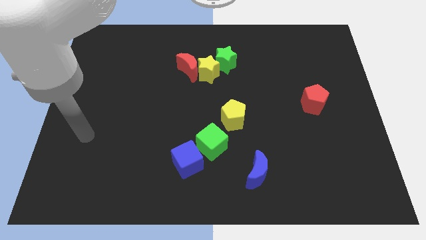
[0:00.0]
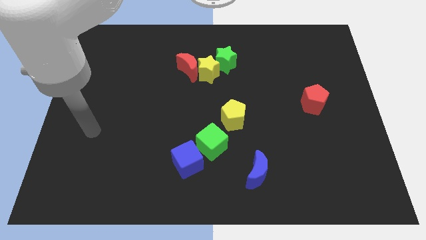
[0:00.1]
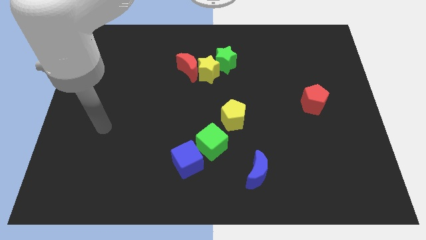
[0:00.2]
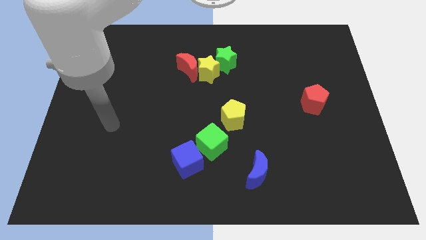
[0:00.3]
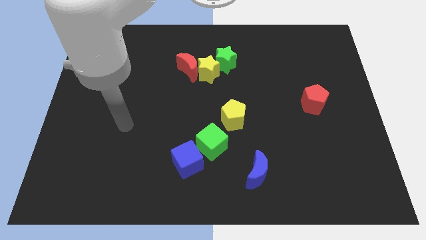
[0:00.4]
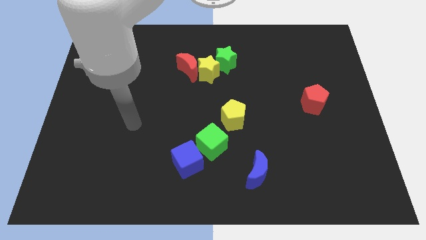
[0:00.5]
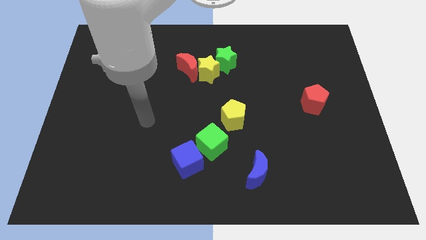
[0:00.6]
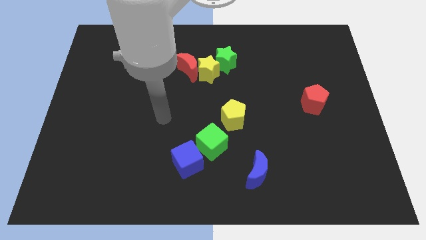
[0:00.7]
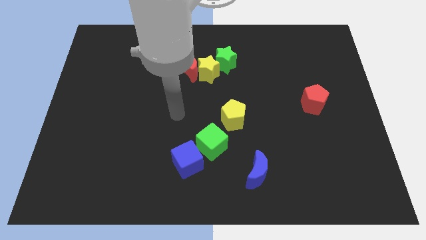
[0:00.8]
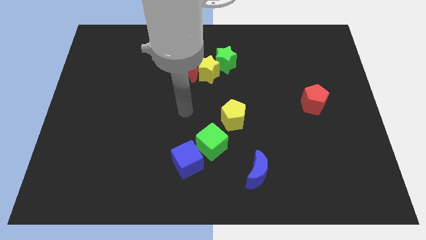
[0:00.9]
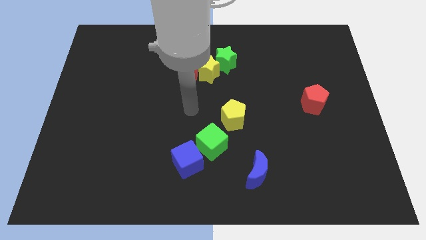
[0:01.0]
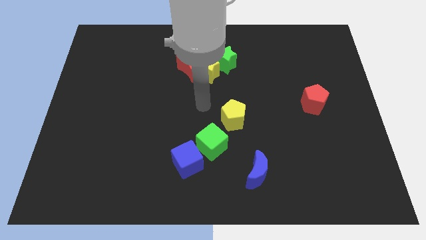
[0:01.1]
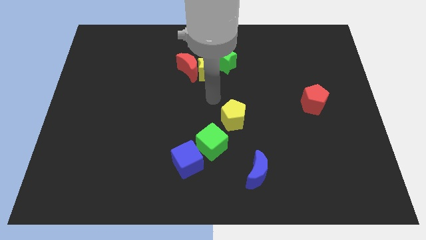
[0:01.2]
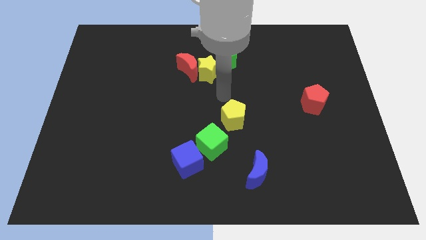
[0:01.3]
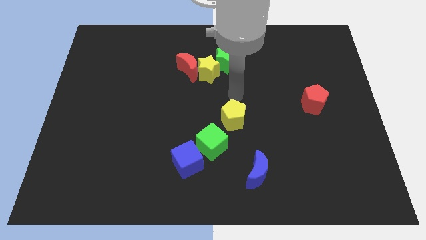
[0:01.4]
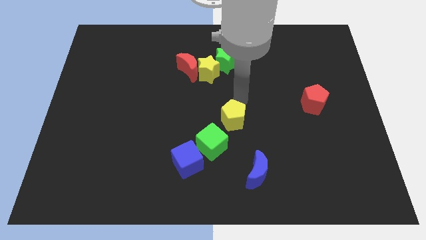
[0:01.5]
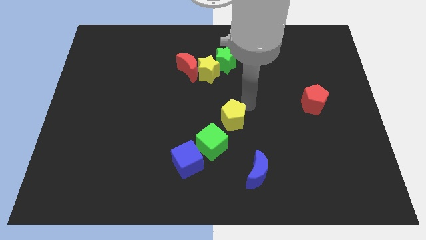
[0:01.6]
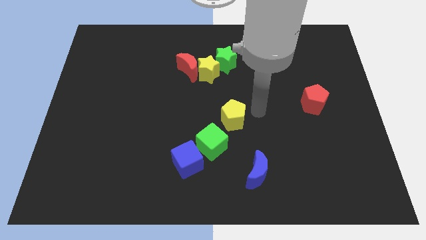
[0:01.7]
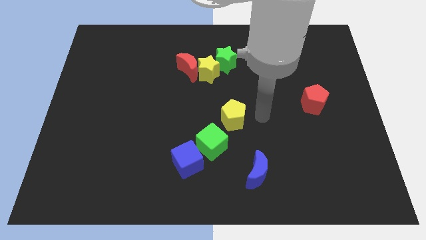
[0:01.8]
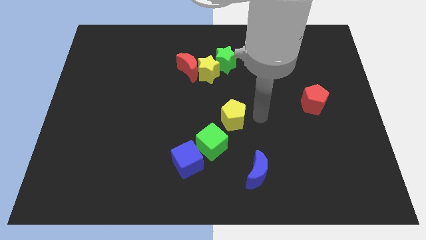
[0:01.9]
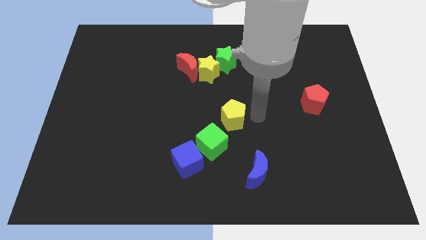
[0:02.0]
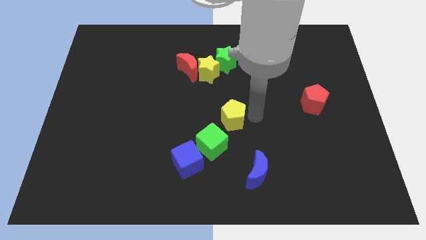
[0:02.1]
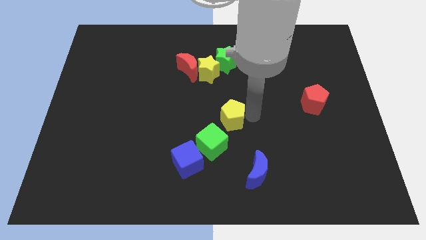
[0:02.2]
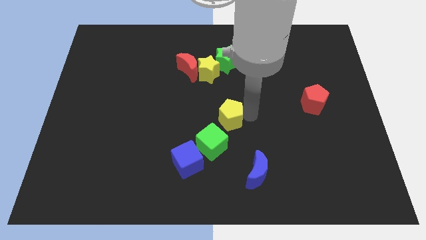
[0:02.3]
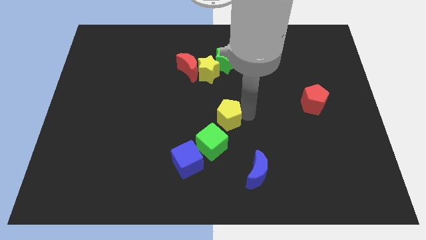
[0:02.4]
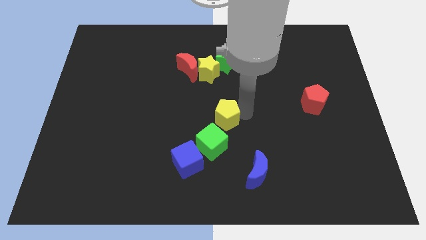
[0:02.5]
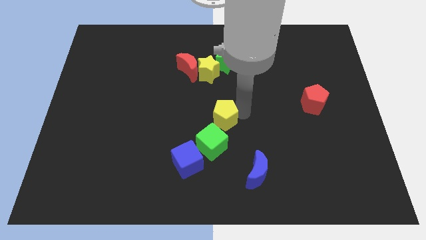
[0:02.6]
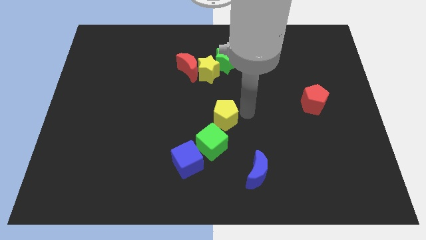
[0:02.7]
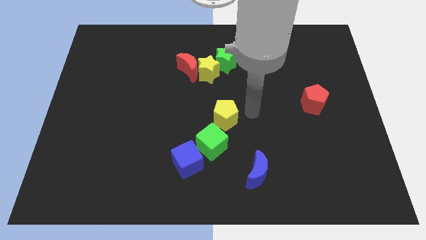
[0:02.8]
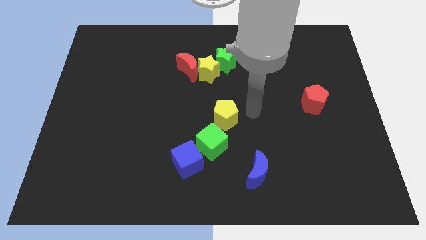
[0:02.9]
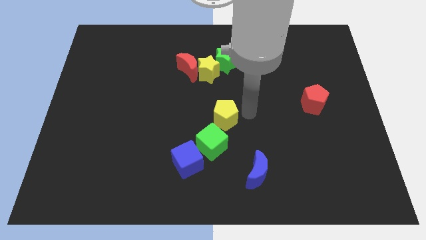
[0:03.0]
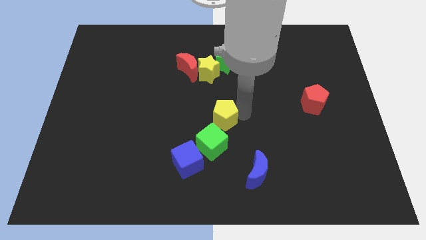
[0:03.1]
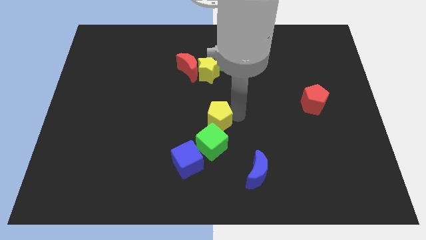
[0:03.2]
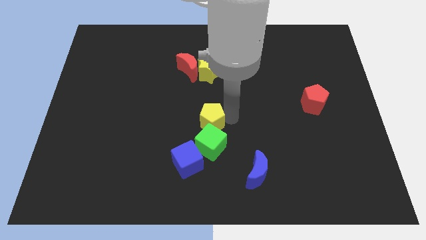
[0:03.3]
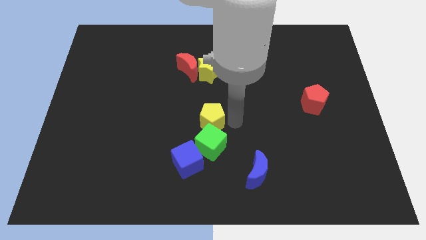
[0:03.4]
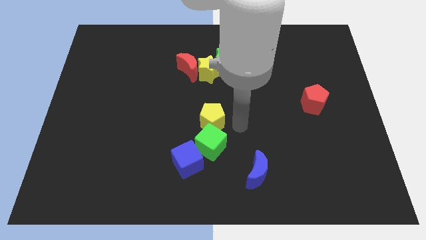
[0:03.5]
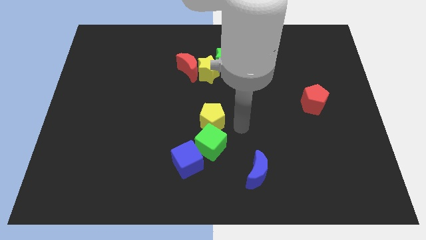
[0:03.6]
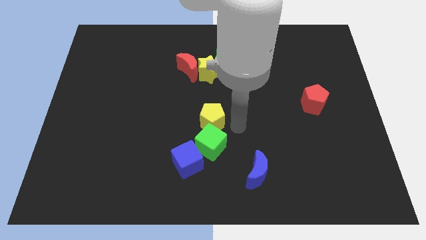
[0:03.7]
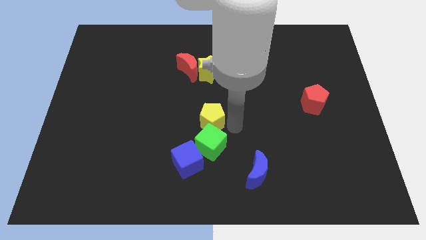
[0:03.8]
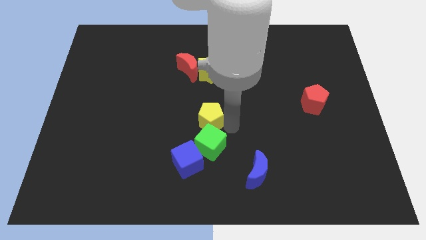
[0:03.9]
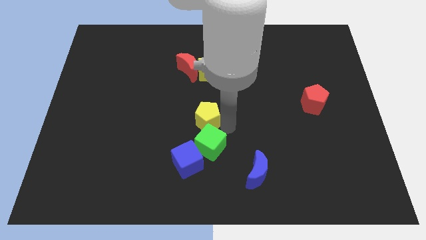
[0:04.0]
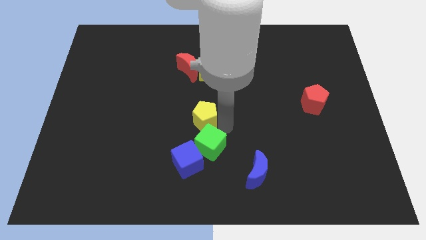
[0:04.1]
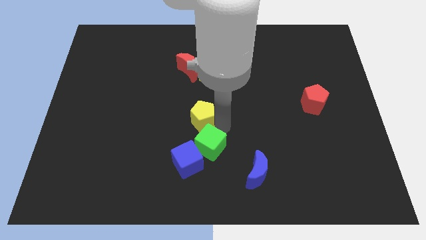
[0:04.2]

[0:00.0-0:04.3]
push the yellow pentagon a little bit left

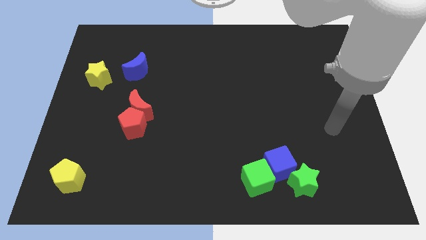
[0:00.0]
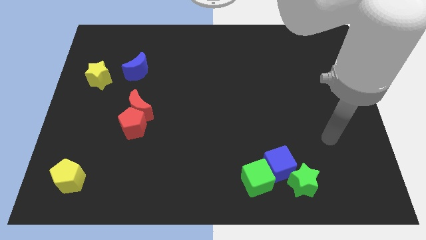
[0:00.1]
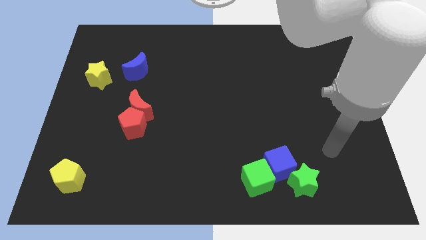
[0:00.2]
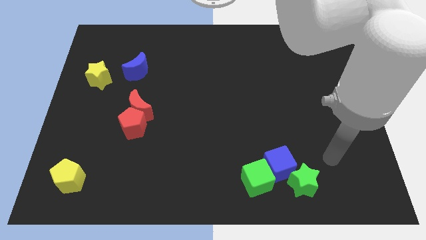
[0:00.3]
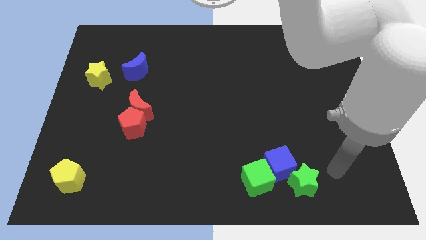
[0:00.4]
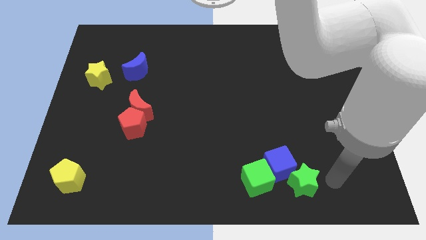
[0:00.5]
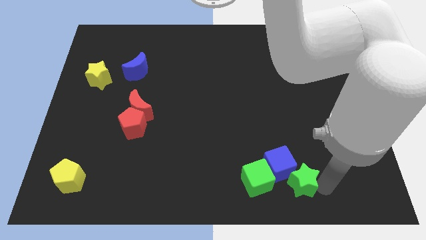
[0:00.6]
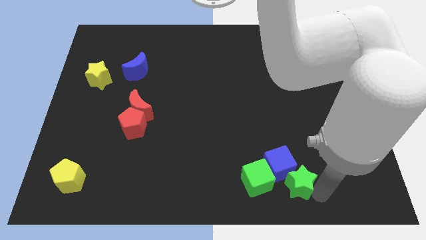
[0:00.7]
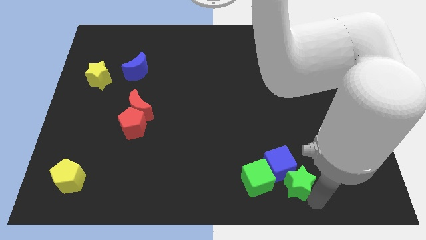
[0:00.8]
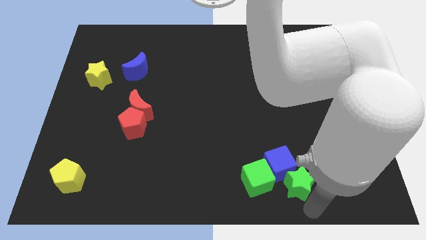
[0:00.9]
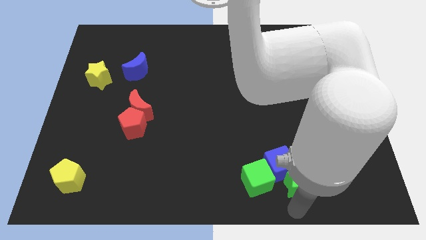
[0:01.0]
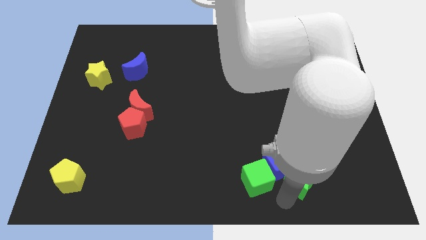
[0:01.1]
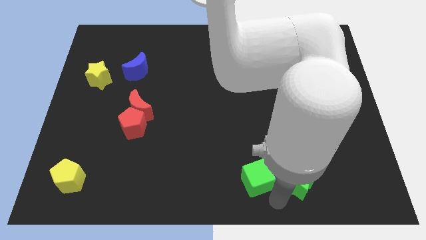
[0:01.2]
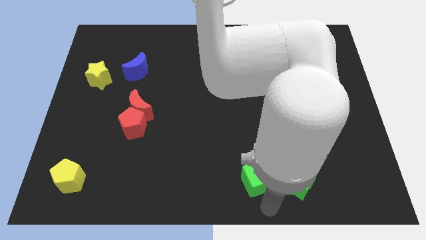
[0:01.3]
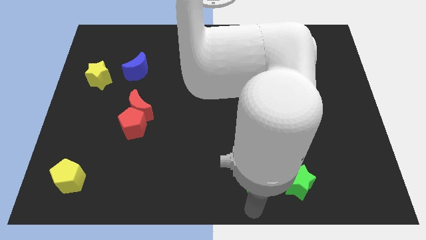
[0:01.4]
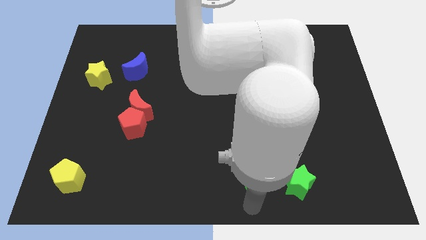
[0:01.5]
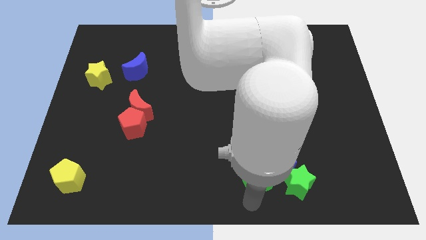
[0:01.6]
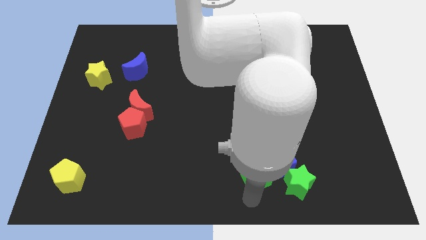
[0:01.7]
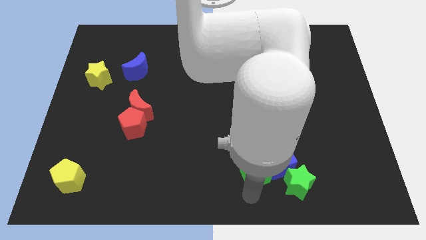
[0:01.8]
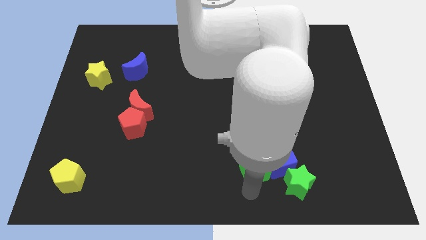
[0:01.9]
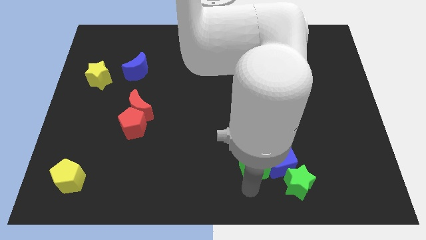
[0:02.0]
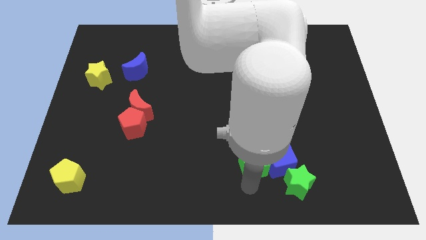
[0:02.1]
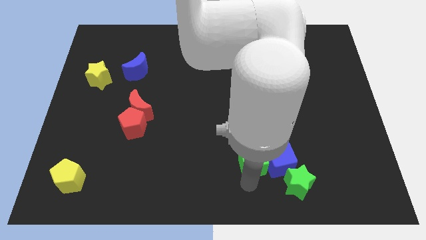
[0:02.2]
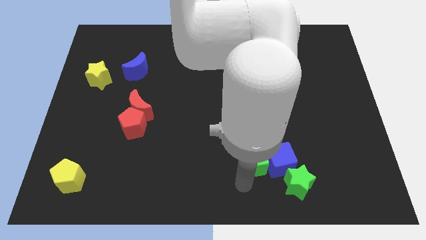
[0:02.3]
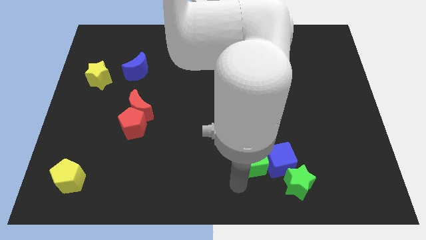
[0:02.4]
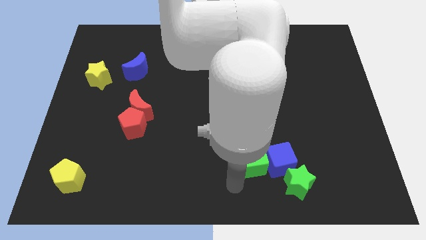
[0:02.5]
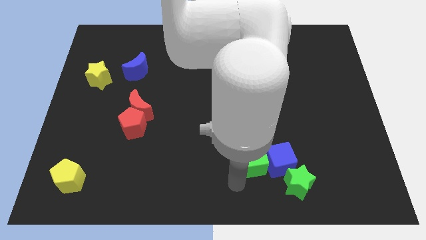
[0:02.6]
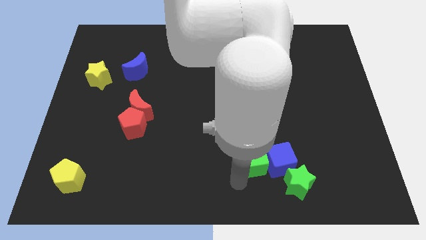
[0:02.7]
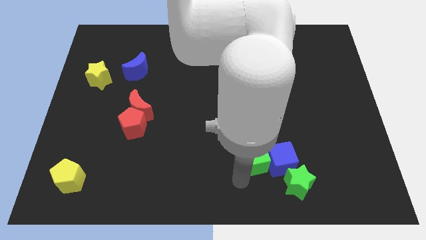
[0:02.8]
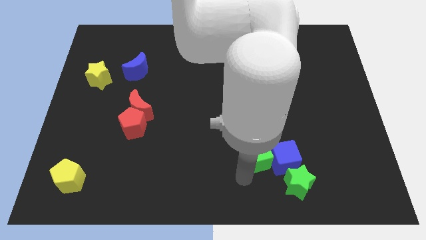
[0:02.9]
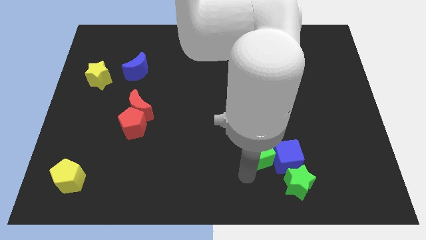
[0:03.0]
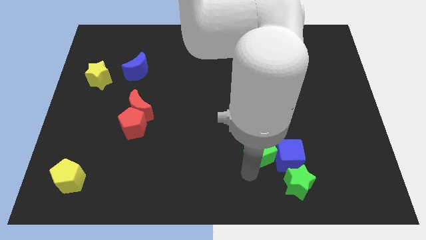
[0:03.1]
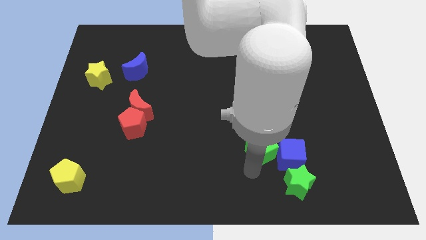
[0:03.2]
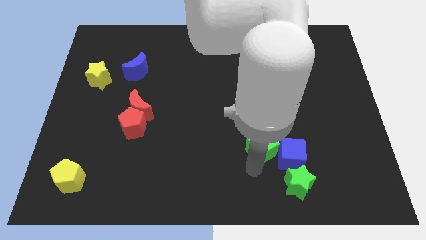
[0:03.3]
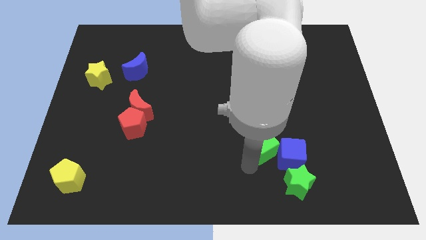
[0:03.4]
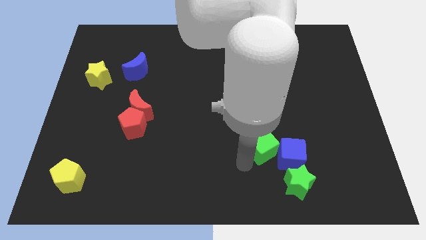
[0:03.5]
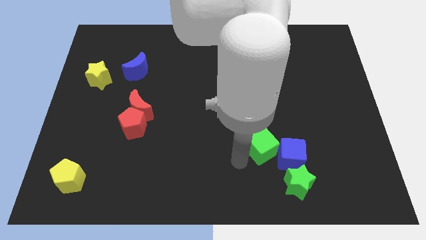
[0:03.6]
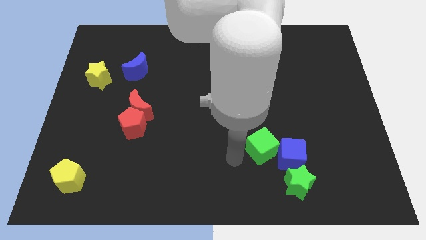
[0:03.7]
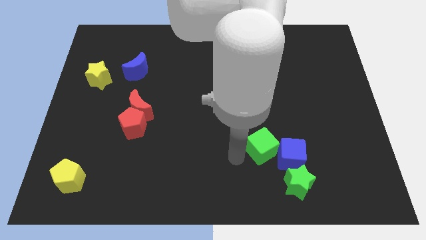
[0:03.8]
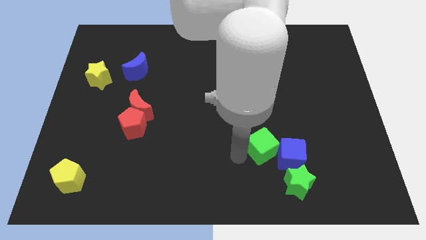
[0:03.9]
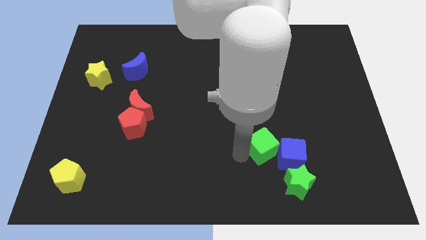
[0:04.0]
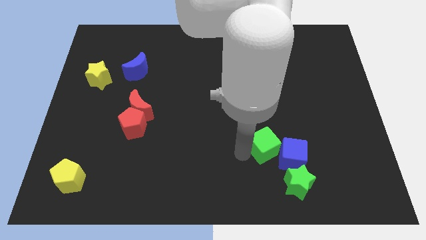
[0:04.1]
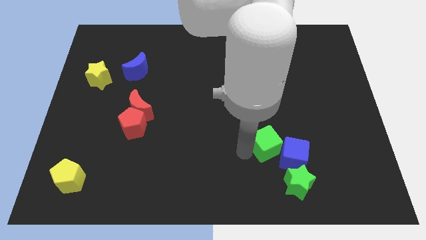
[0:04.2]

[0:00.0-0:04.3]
slide the green cube up and right a bit
